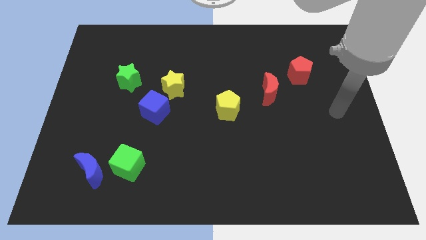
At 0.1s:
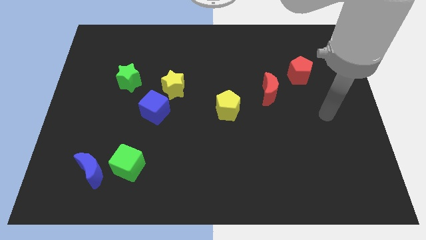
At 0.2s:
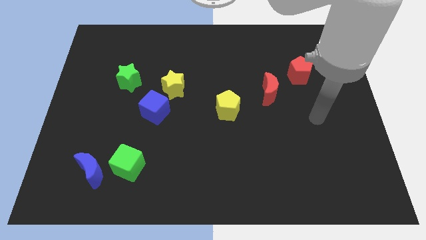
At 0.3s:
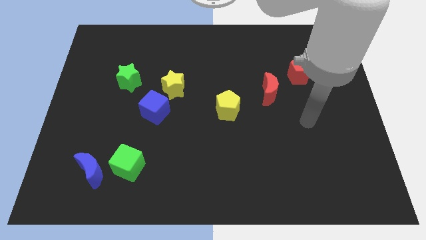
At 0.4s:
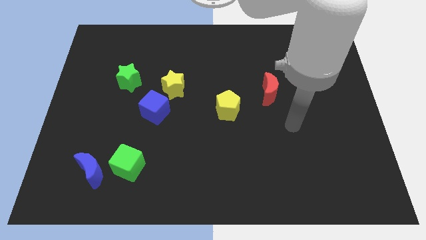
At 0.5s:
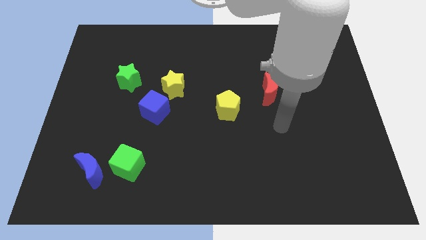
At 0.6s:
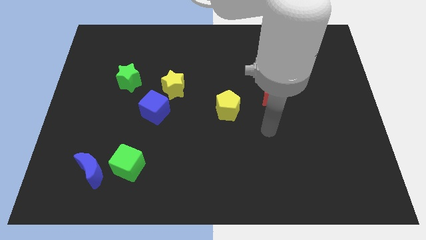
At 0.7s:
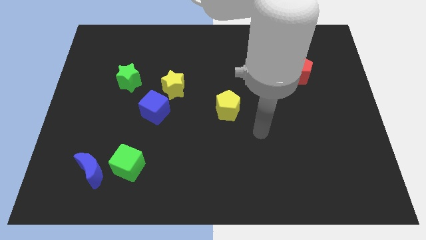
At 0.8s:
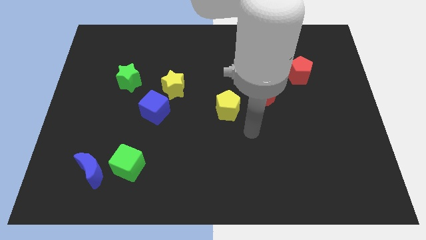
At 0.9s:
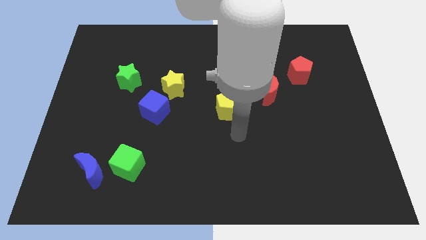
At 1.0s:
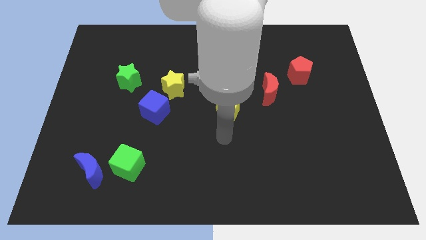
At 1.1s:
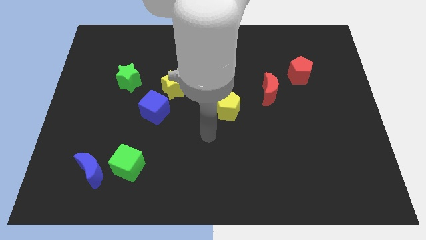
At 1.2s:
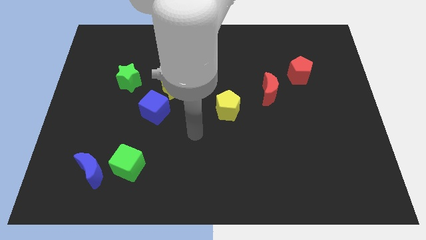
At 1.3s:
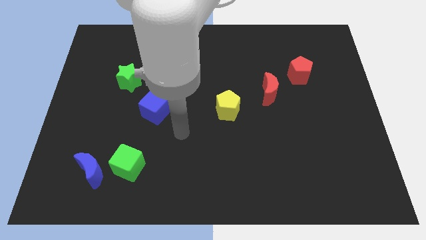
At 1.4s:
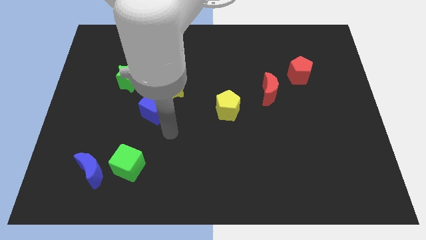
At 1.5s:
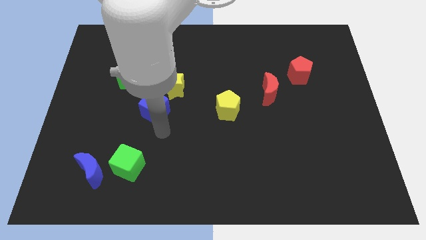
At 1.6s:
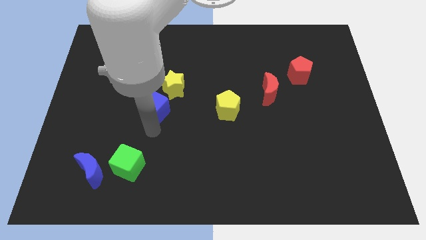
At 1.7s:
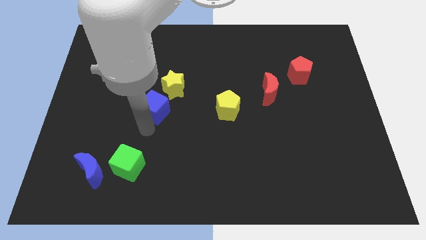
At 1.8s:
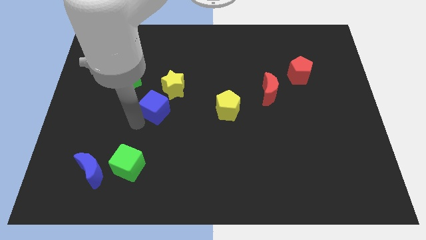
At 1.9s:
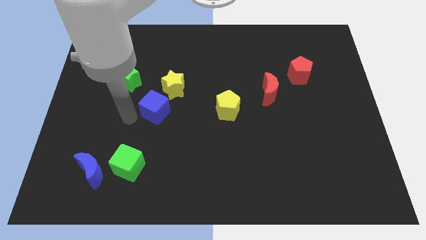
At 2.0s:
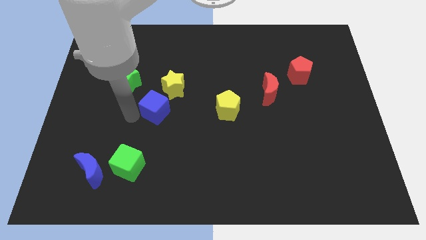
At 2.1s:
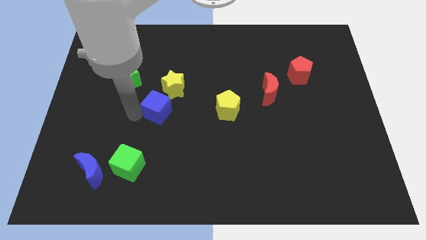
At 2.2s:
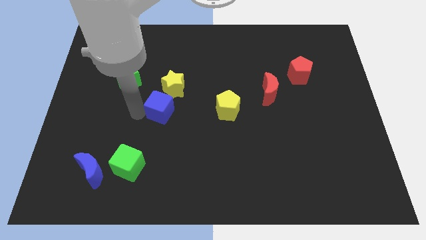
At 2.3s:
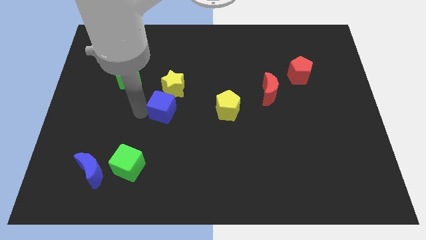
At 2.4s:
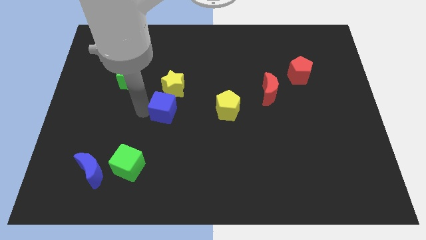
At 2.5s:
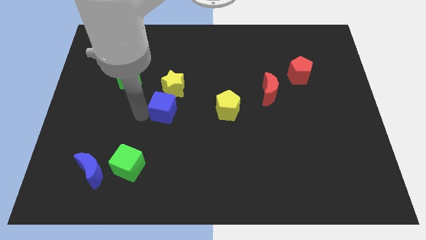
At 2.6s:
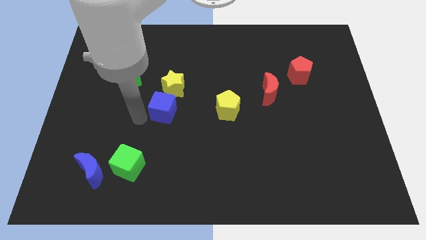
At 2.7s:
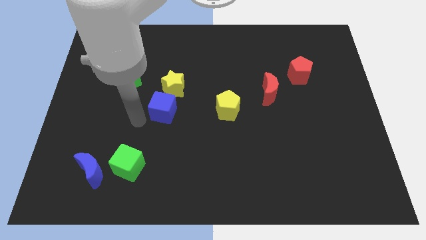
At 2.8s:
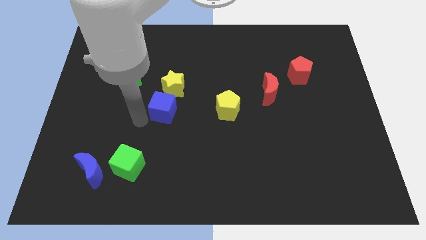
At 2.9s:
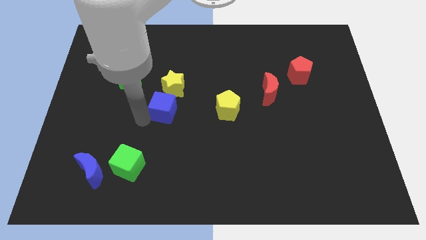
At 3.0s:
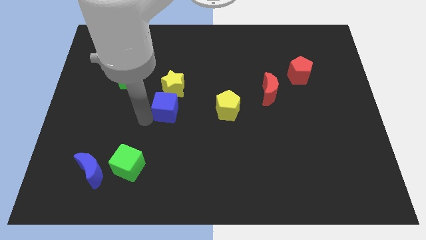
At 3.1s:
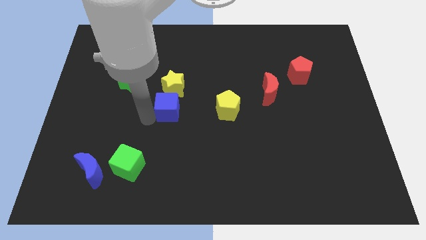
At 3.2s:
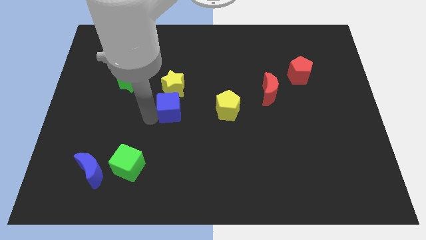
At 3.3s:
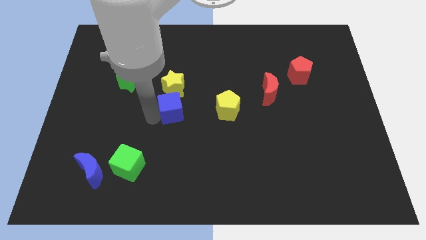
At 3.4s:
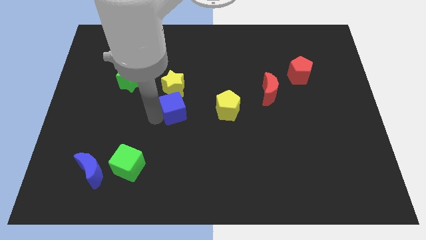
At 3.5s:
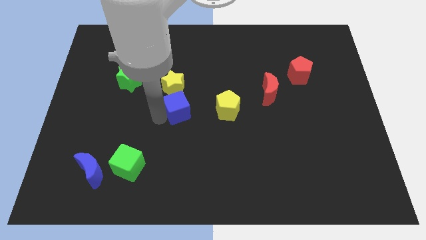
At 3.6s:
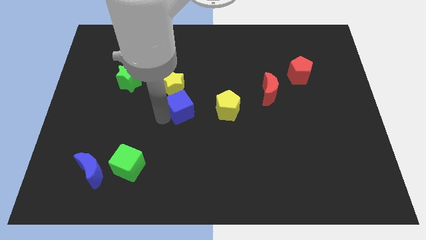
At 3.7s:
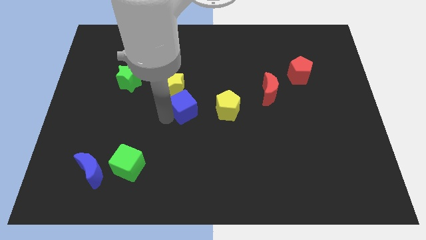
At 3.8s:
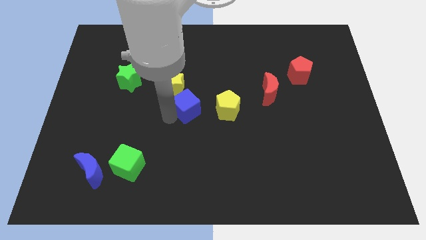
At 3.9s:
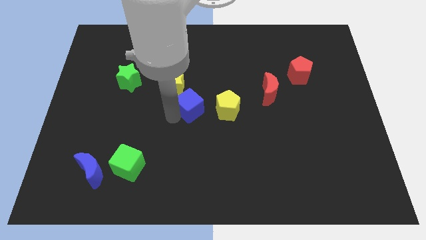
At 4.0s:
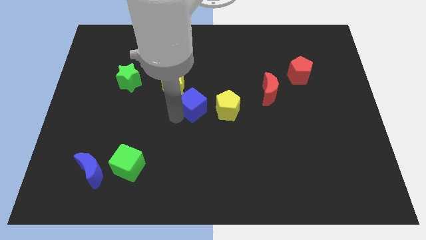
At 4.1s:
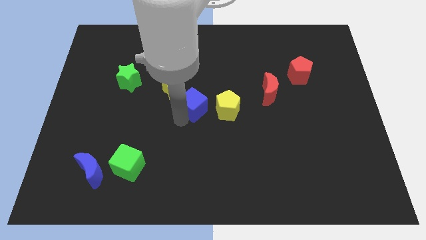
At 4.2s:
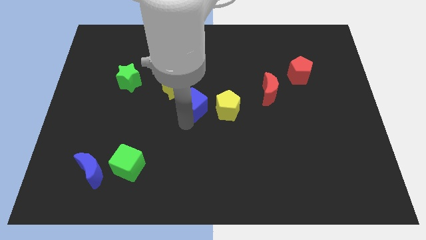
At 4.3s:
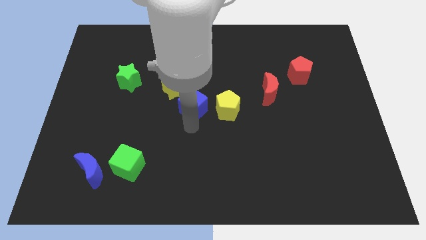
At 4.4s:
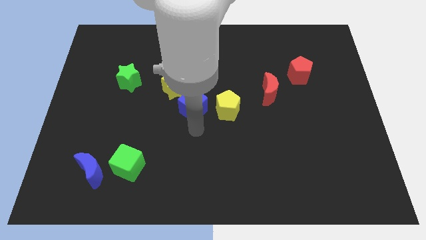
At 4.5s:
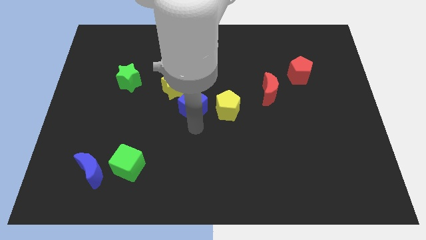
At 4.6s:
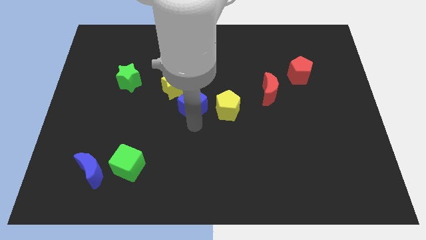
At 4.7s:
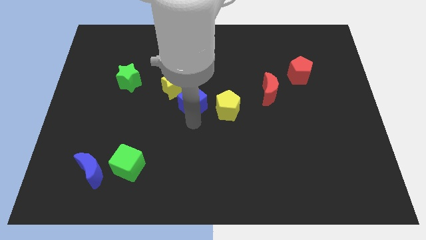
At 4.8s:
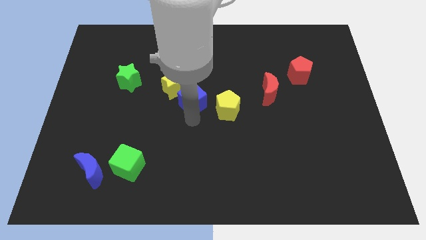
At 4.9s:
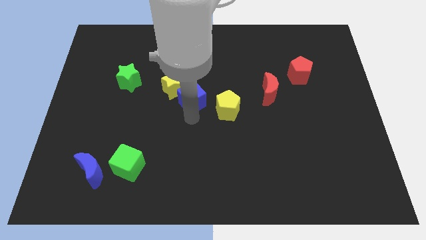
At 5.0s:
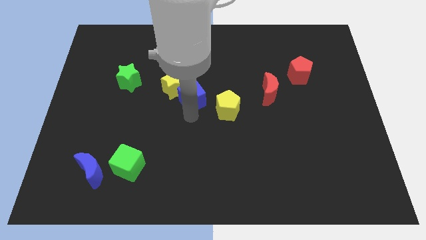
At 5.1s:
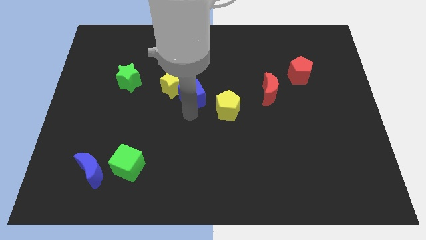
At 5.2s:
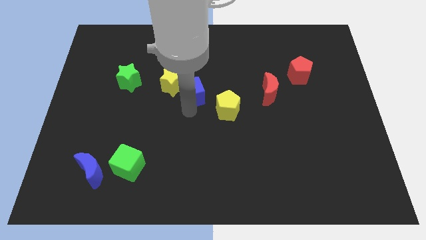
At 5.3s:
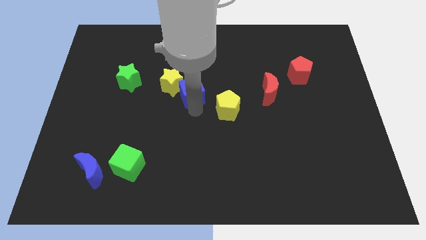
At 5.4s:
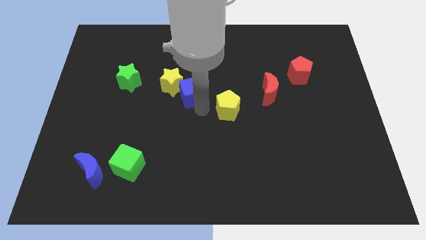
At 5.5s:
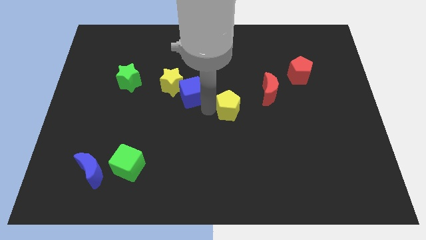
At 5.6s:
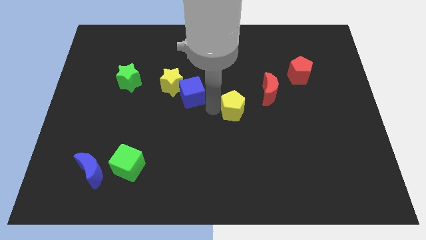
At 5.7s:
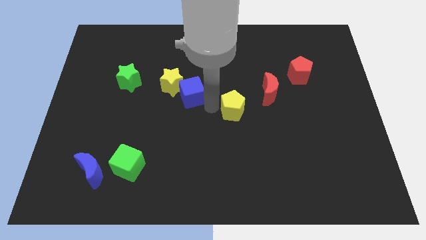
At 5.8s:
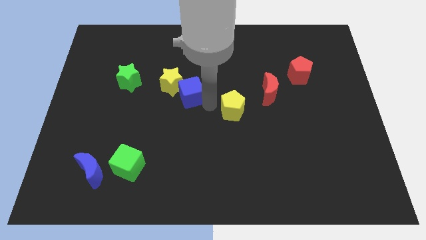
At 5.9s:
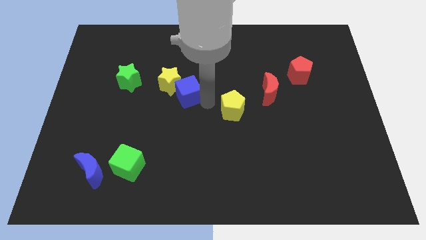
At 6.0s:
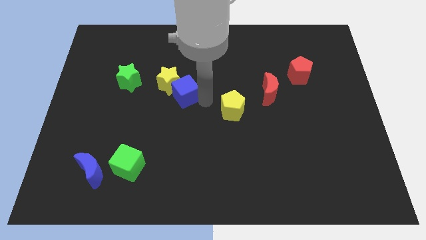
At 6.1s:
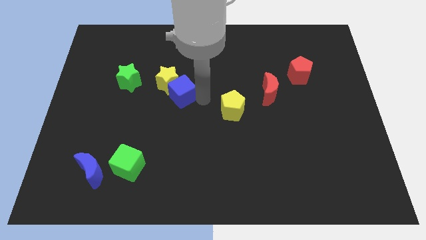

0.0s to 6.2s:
move the blue cube to the right of the green star

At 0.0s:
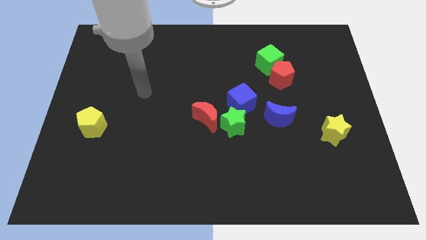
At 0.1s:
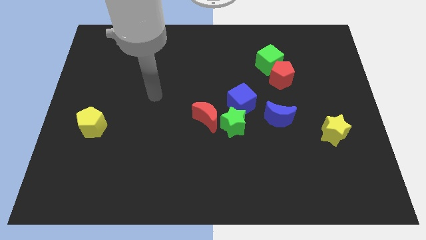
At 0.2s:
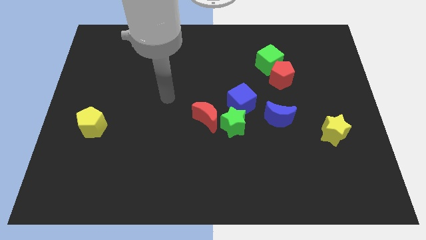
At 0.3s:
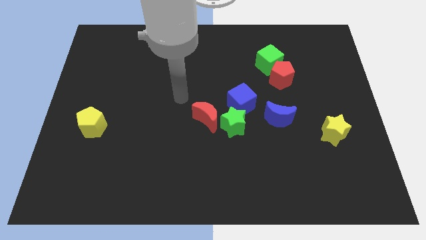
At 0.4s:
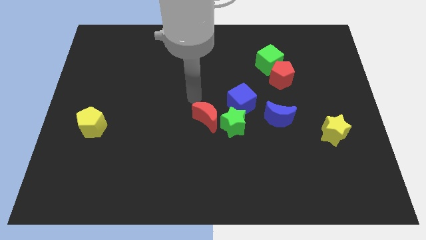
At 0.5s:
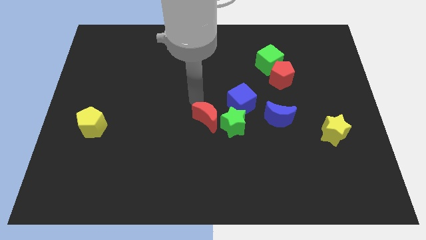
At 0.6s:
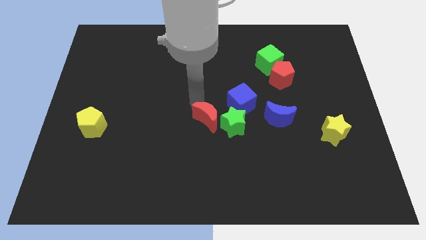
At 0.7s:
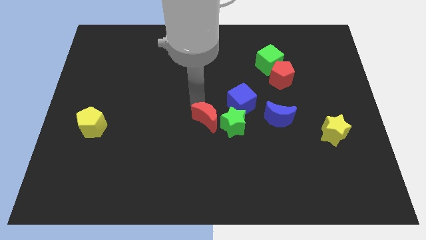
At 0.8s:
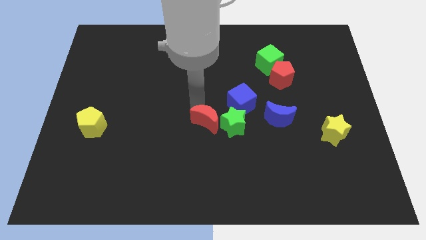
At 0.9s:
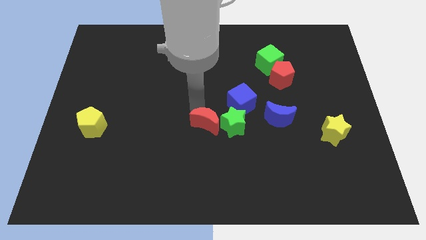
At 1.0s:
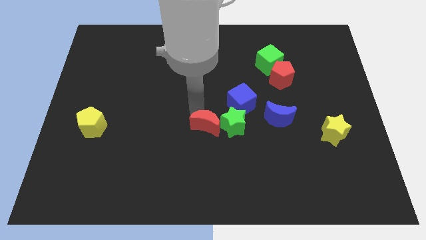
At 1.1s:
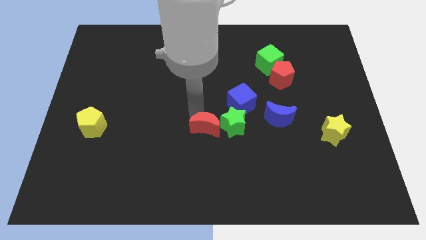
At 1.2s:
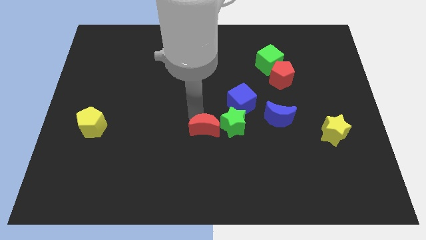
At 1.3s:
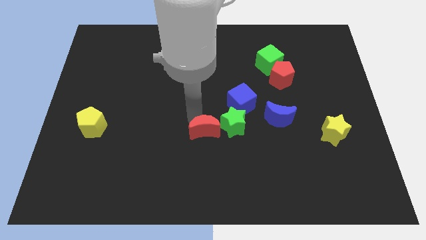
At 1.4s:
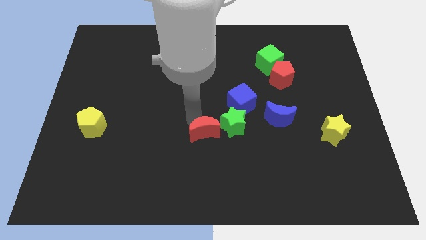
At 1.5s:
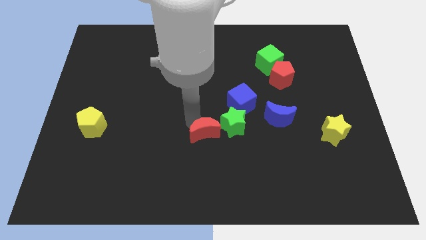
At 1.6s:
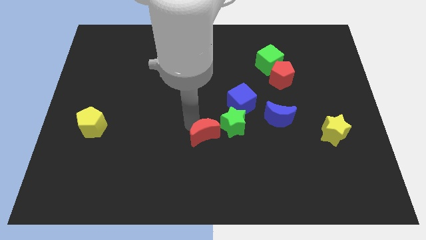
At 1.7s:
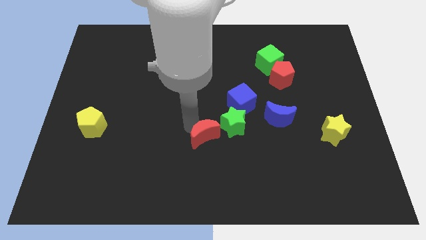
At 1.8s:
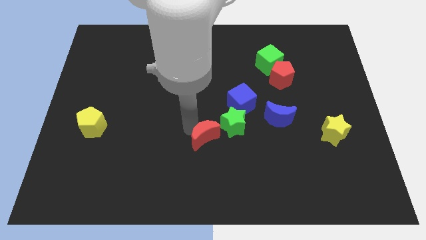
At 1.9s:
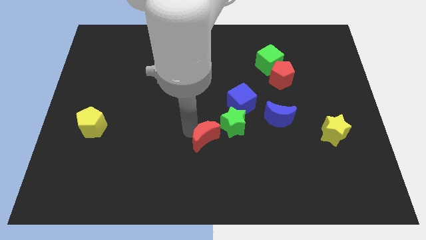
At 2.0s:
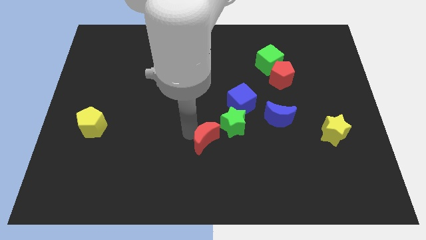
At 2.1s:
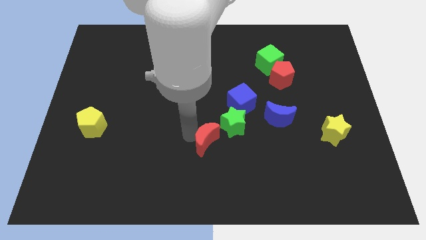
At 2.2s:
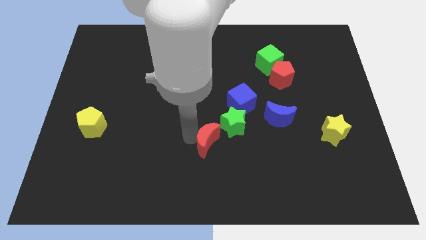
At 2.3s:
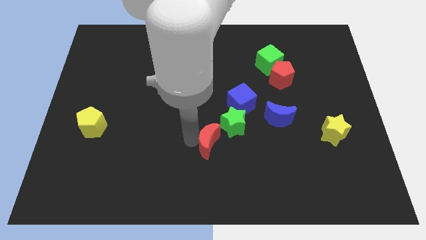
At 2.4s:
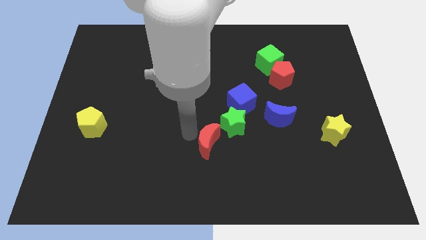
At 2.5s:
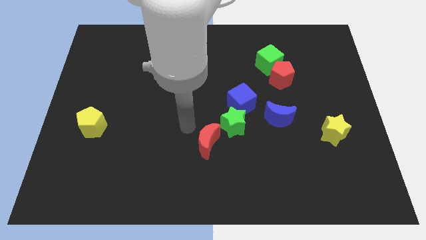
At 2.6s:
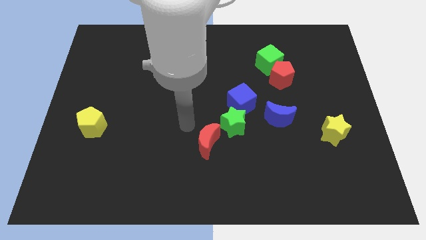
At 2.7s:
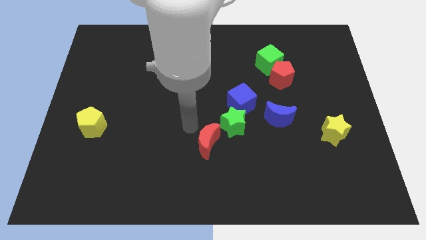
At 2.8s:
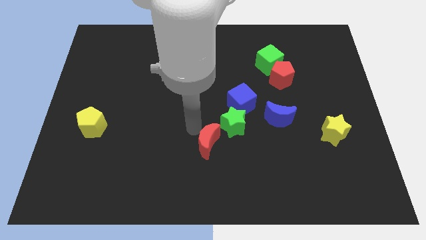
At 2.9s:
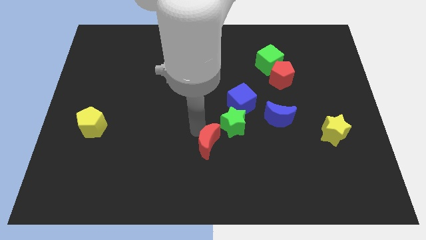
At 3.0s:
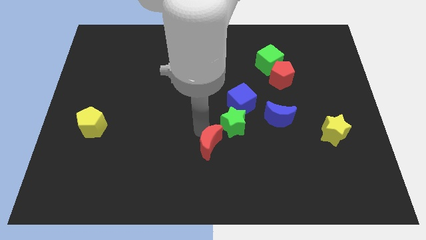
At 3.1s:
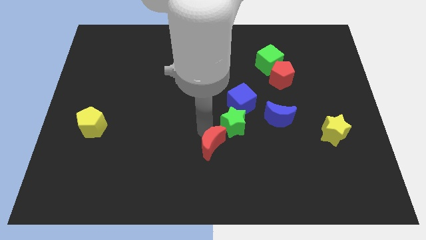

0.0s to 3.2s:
move the red moon to the bottom of the green star
